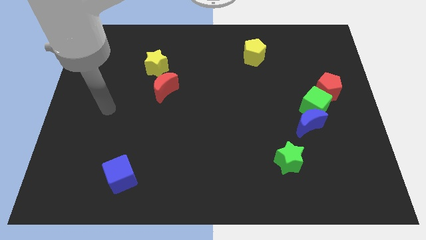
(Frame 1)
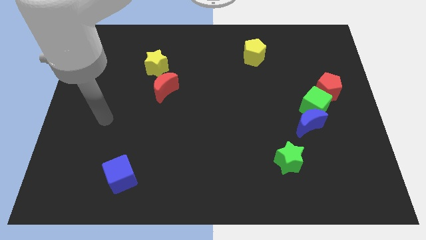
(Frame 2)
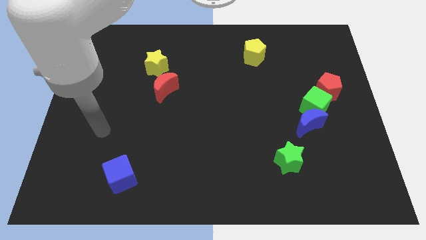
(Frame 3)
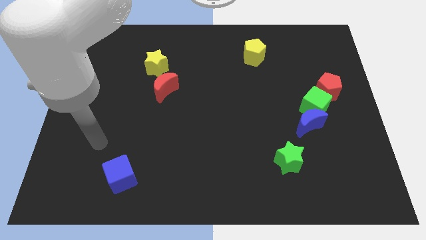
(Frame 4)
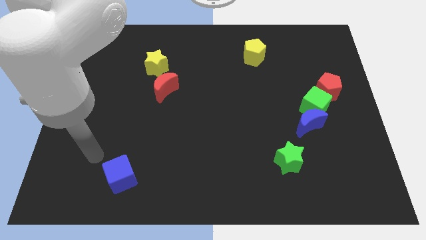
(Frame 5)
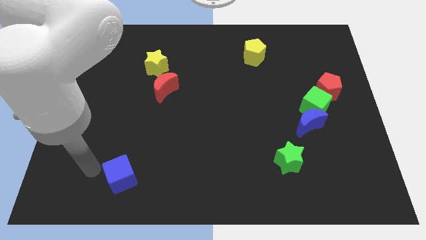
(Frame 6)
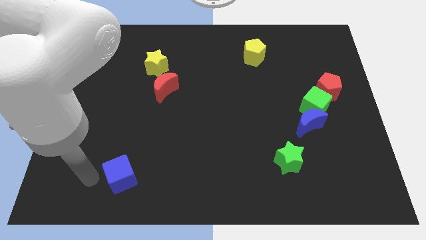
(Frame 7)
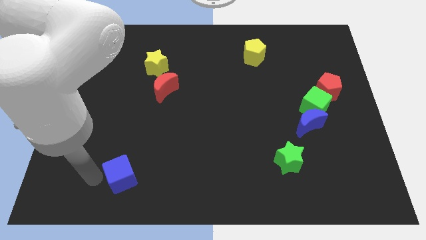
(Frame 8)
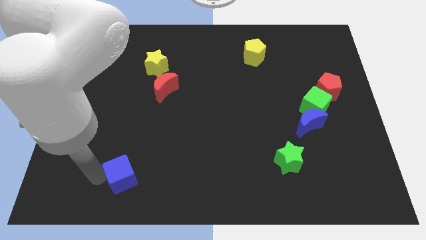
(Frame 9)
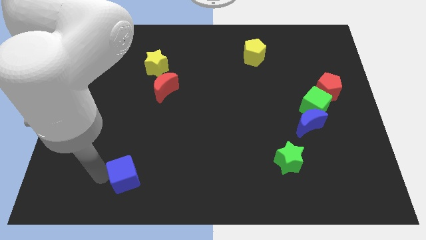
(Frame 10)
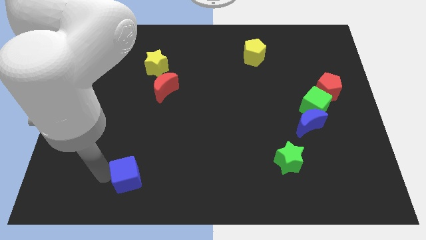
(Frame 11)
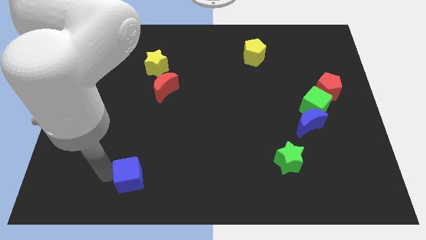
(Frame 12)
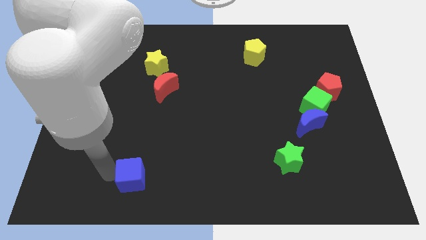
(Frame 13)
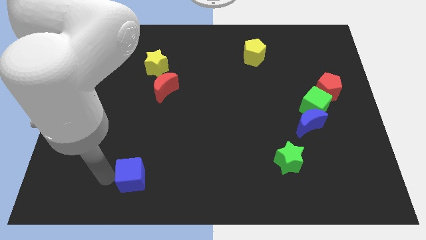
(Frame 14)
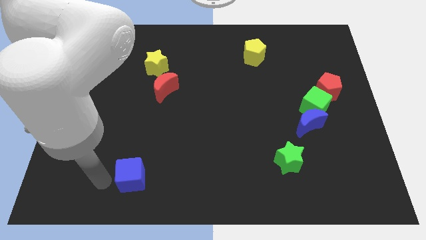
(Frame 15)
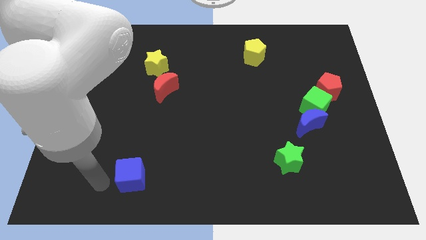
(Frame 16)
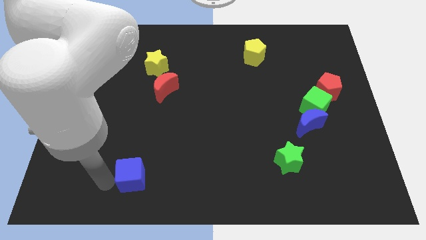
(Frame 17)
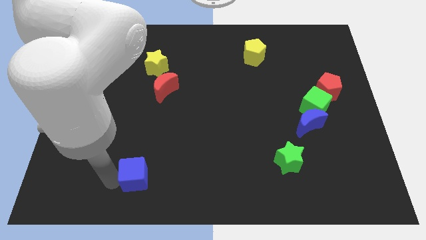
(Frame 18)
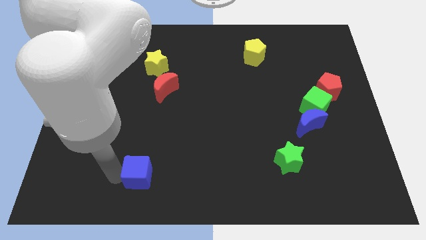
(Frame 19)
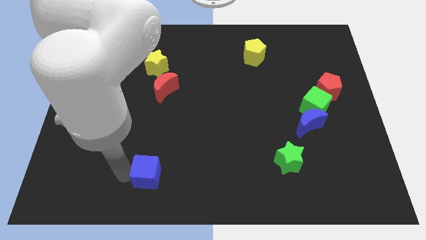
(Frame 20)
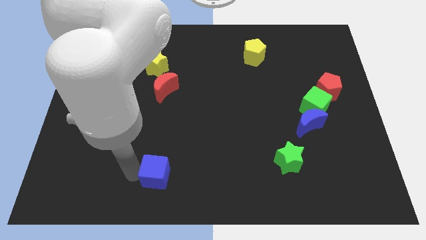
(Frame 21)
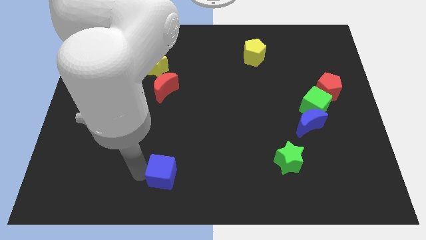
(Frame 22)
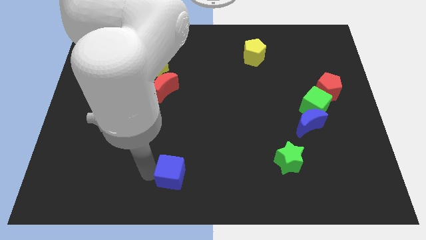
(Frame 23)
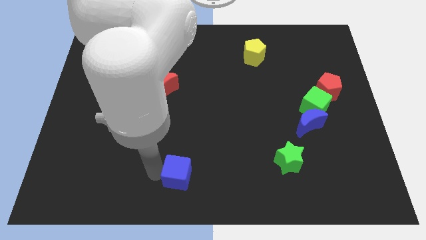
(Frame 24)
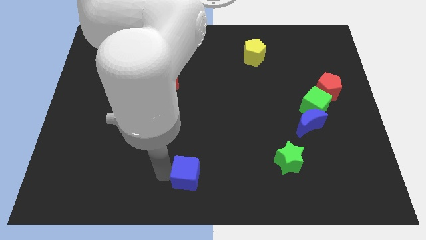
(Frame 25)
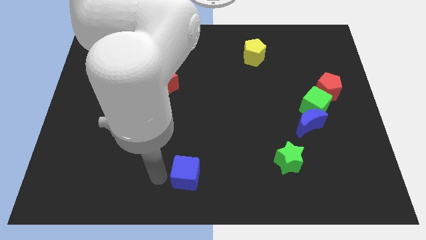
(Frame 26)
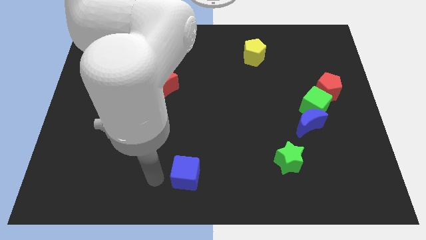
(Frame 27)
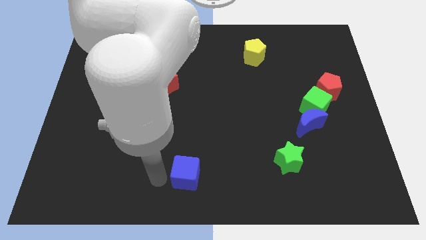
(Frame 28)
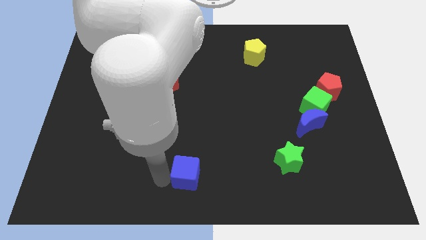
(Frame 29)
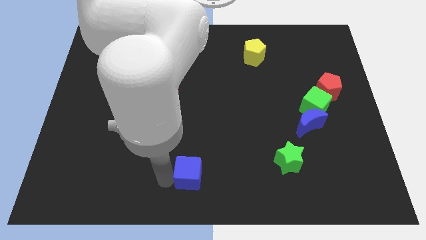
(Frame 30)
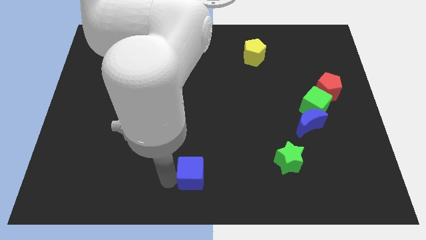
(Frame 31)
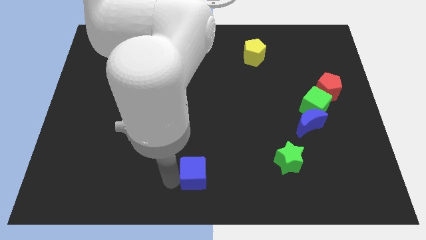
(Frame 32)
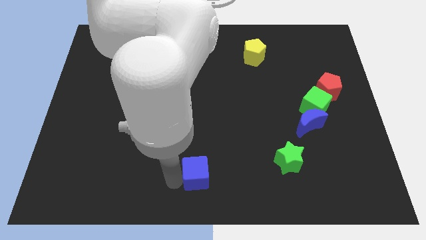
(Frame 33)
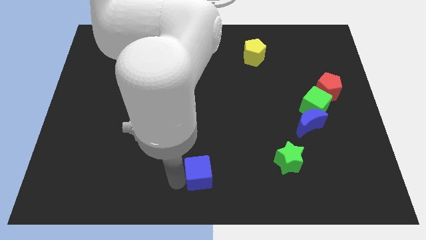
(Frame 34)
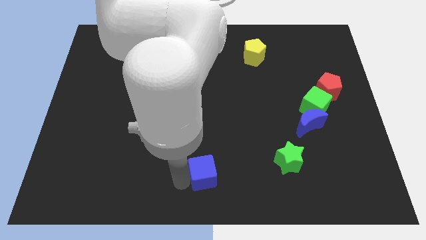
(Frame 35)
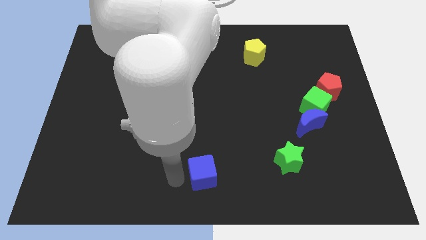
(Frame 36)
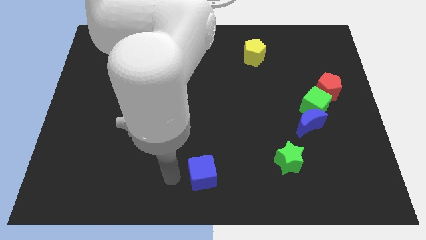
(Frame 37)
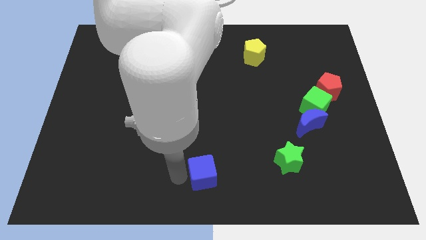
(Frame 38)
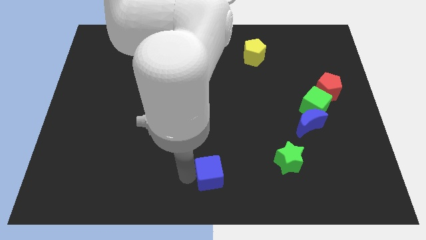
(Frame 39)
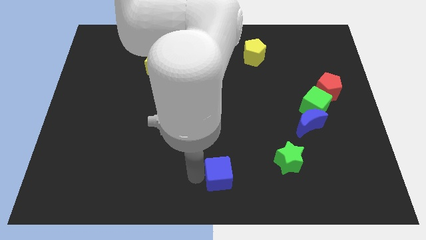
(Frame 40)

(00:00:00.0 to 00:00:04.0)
slide the blue cube right

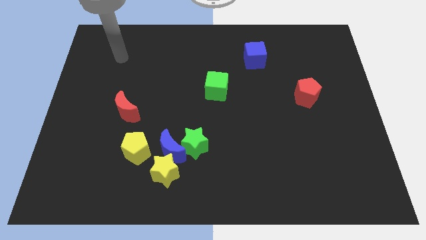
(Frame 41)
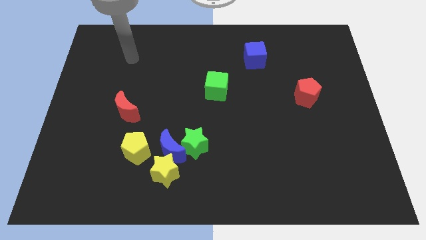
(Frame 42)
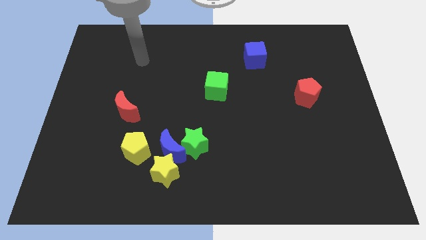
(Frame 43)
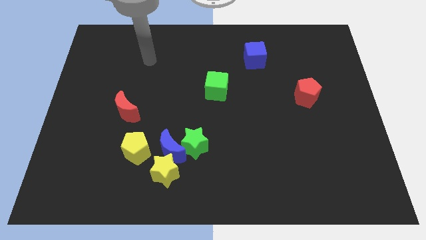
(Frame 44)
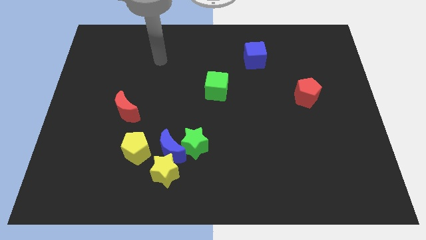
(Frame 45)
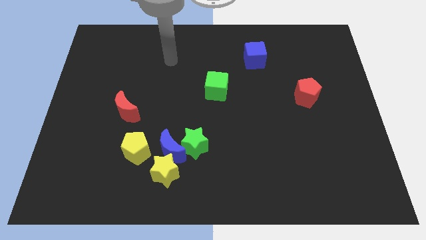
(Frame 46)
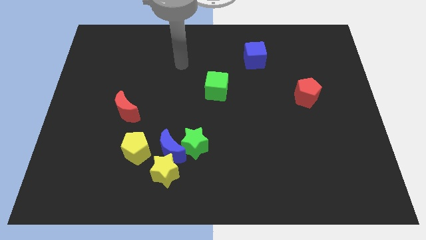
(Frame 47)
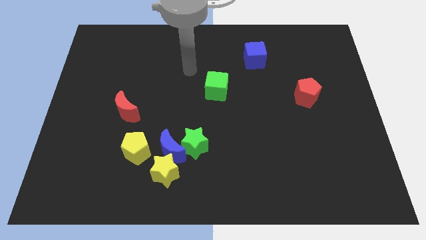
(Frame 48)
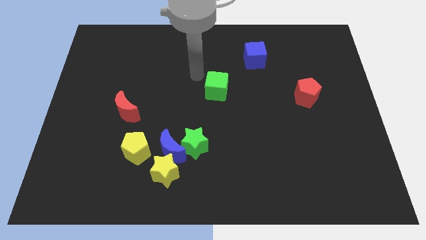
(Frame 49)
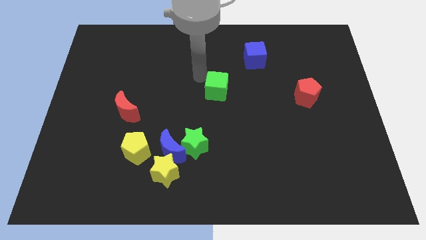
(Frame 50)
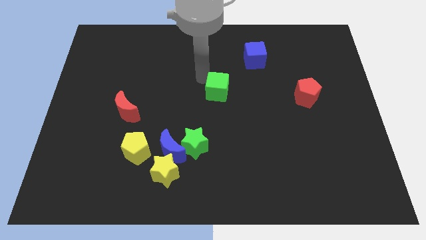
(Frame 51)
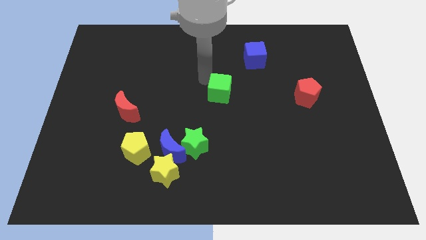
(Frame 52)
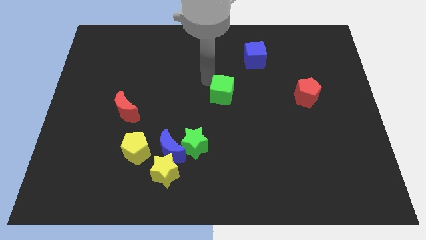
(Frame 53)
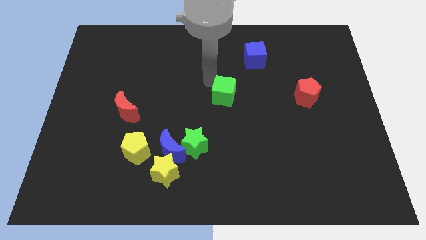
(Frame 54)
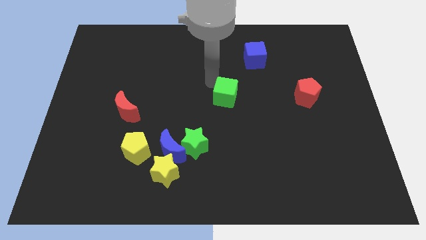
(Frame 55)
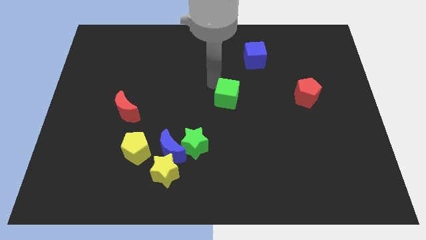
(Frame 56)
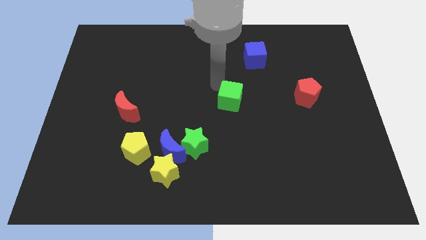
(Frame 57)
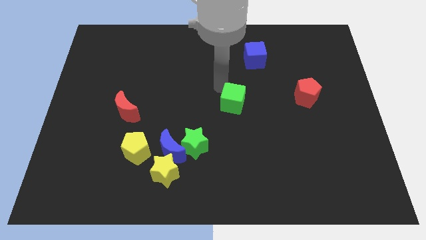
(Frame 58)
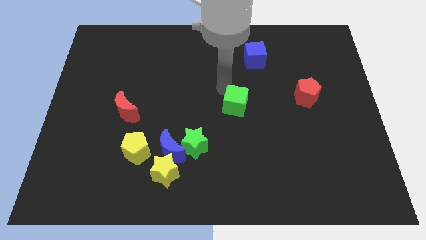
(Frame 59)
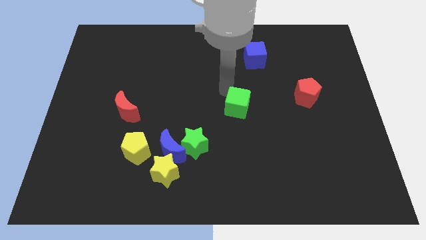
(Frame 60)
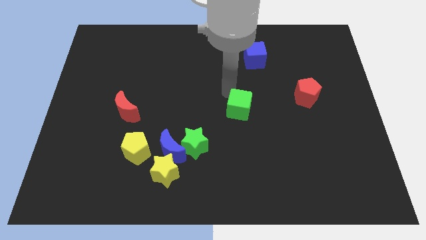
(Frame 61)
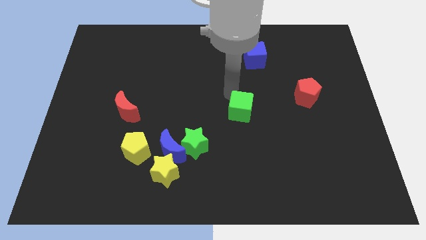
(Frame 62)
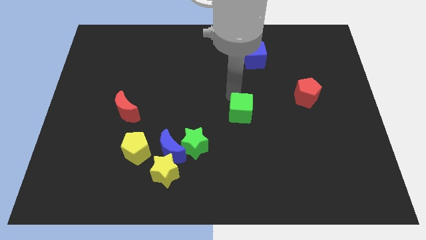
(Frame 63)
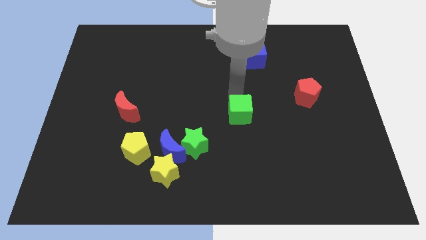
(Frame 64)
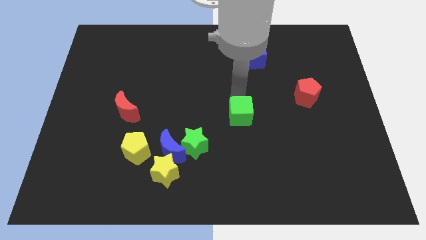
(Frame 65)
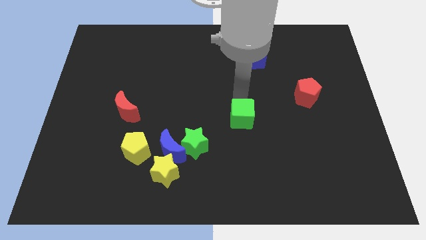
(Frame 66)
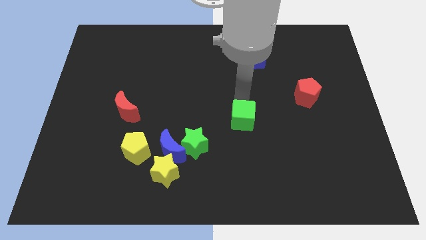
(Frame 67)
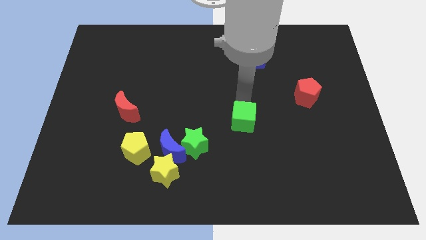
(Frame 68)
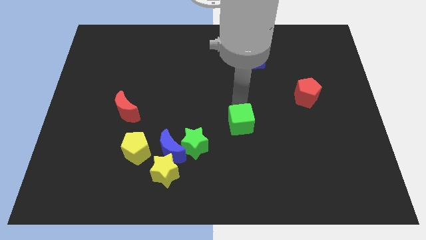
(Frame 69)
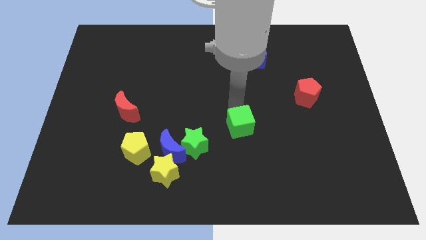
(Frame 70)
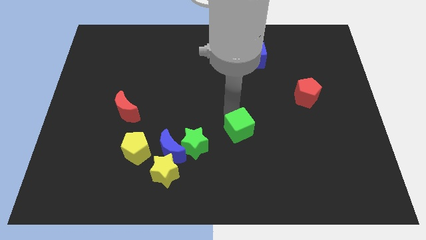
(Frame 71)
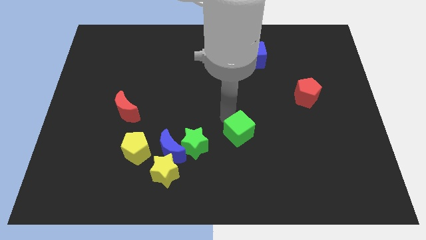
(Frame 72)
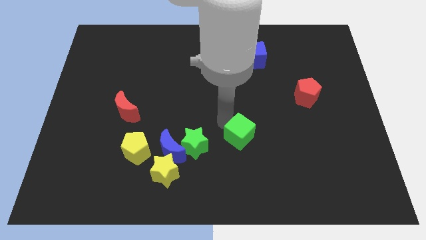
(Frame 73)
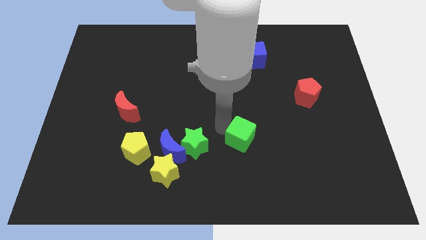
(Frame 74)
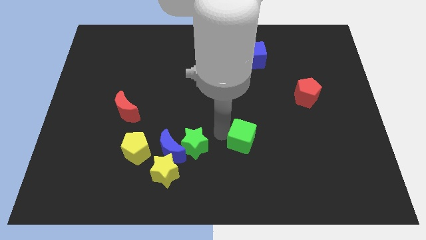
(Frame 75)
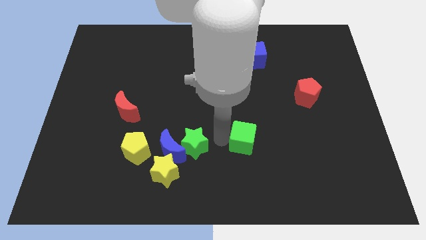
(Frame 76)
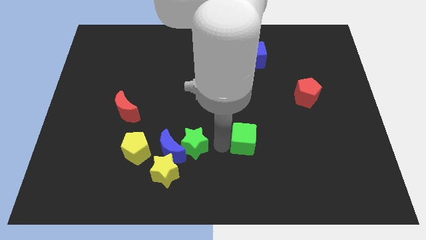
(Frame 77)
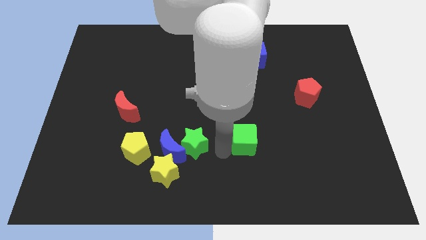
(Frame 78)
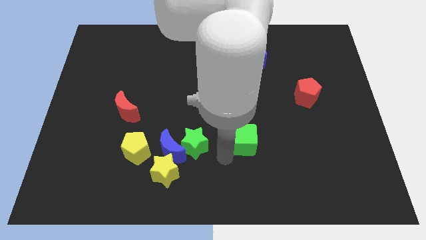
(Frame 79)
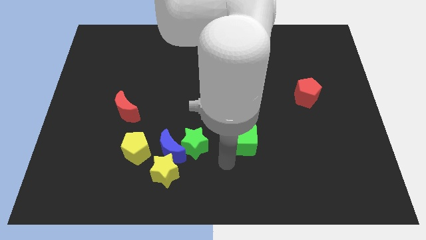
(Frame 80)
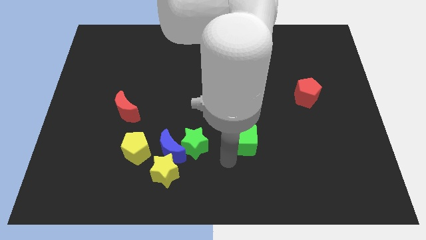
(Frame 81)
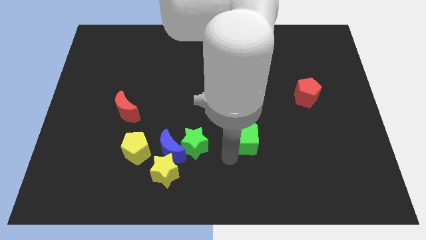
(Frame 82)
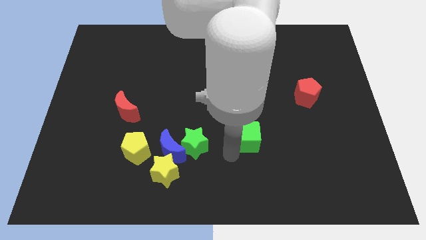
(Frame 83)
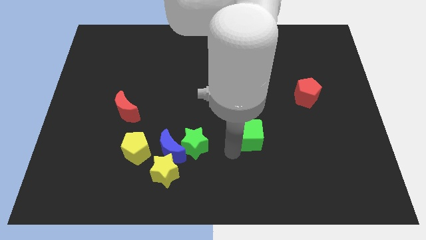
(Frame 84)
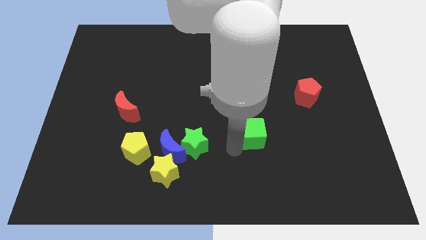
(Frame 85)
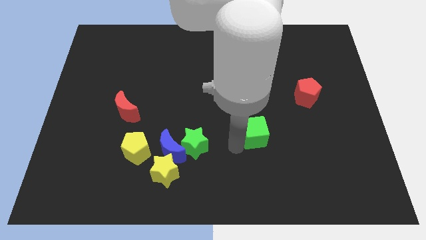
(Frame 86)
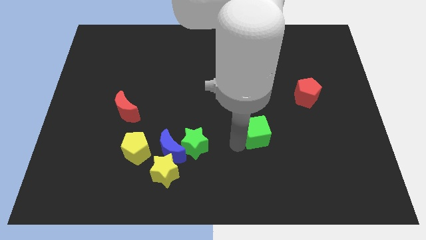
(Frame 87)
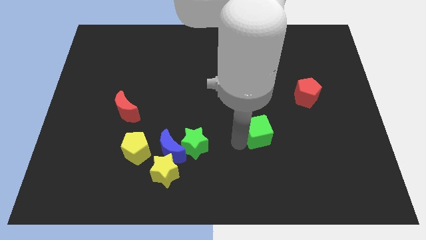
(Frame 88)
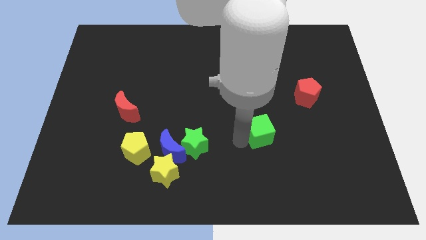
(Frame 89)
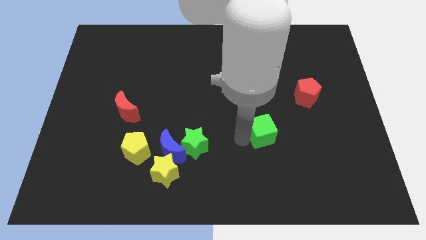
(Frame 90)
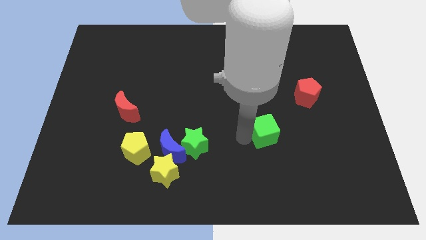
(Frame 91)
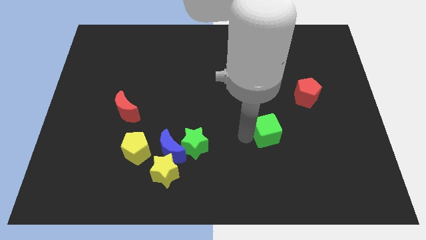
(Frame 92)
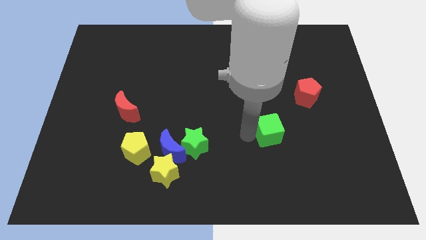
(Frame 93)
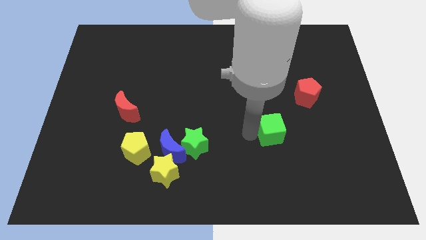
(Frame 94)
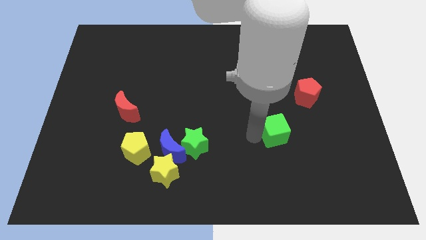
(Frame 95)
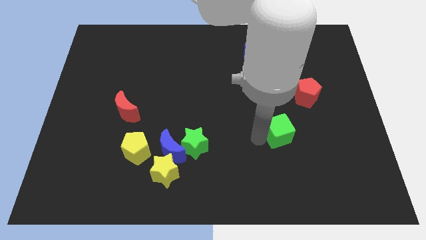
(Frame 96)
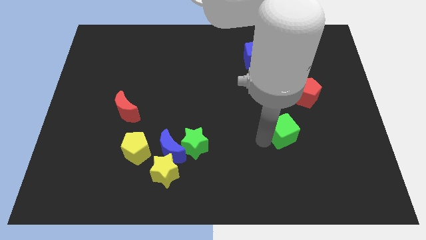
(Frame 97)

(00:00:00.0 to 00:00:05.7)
push the green cube diagonally down and right
